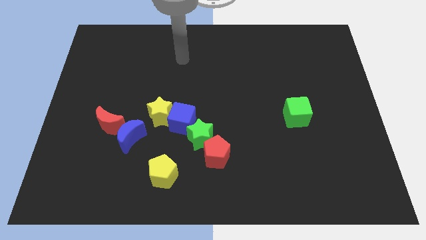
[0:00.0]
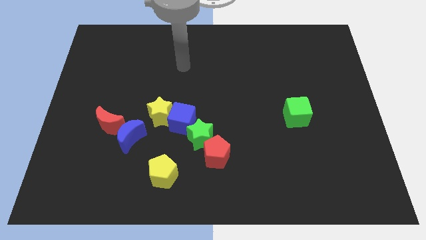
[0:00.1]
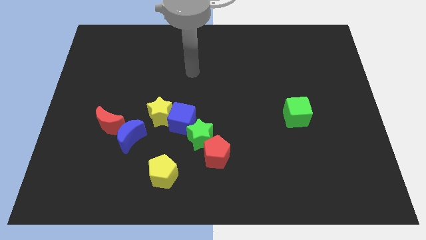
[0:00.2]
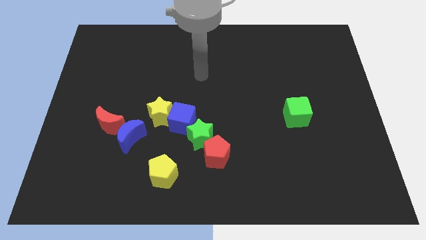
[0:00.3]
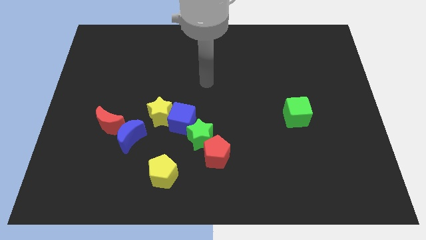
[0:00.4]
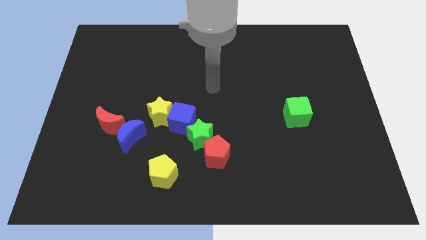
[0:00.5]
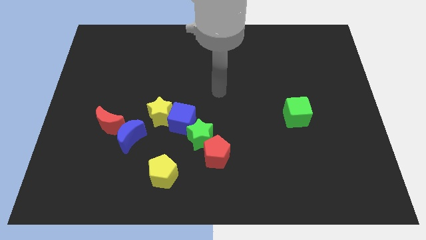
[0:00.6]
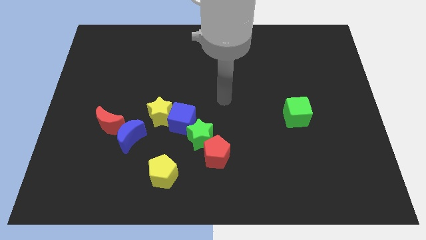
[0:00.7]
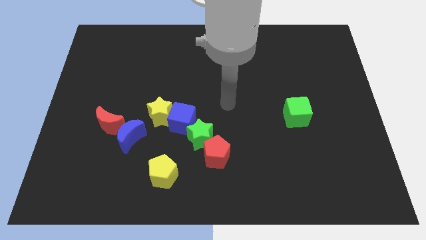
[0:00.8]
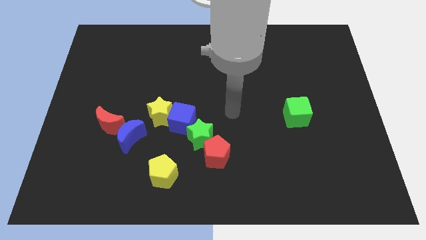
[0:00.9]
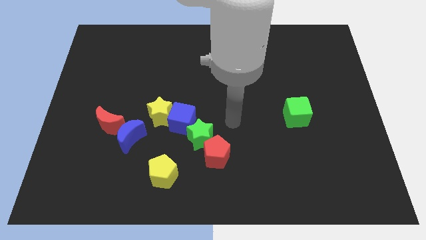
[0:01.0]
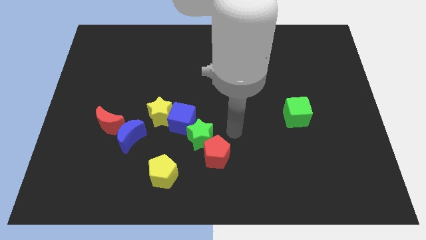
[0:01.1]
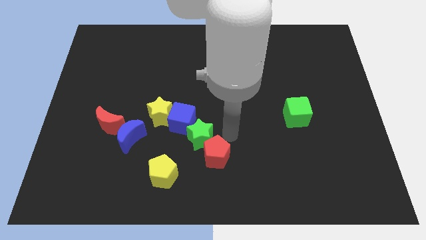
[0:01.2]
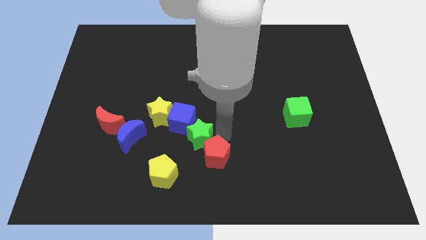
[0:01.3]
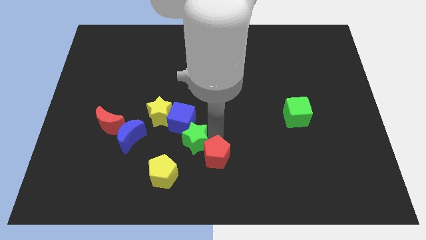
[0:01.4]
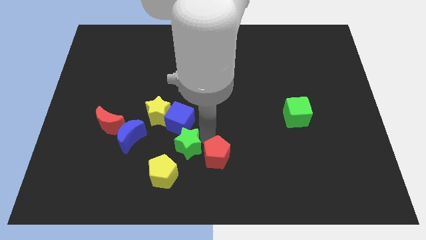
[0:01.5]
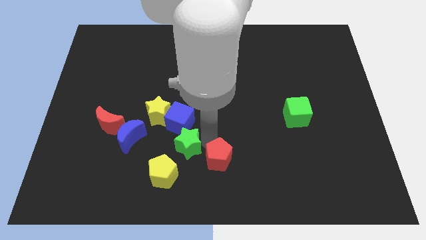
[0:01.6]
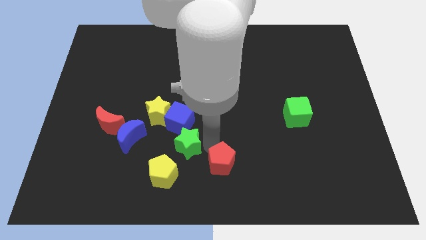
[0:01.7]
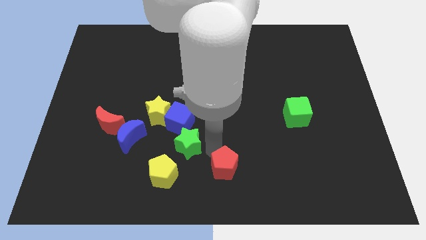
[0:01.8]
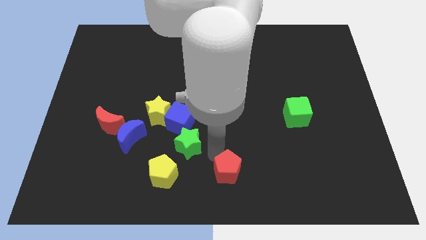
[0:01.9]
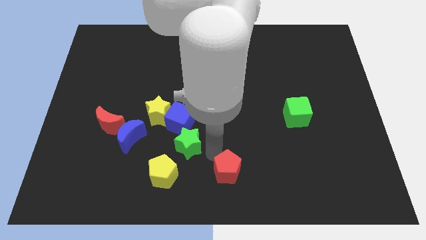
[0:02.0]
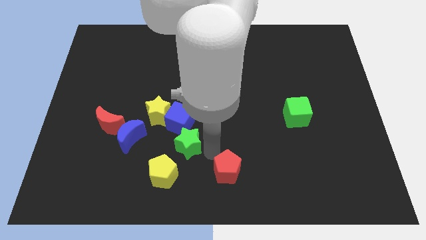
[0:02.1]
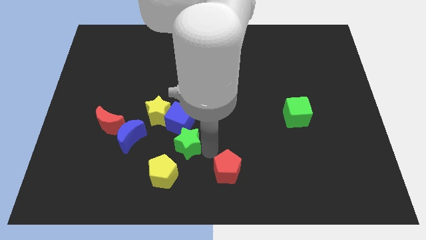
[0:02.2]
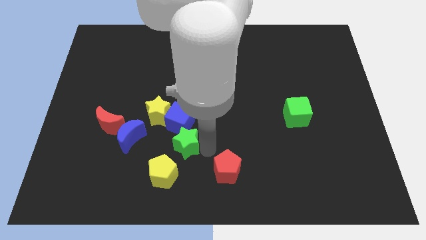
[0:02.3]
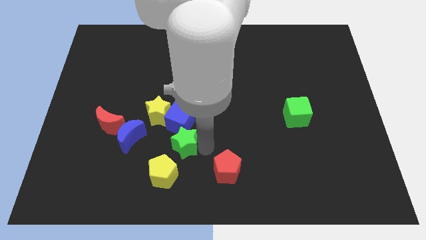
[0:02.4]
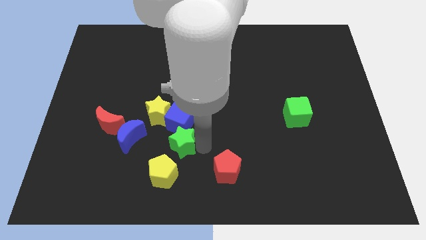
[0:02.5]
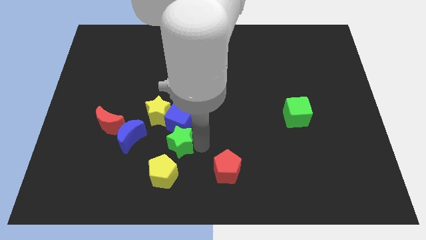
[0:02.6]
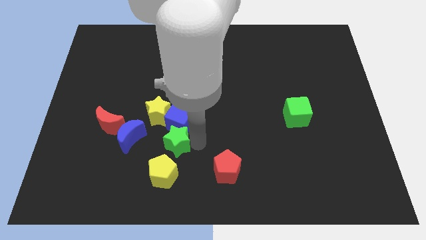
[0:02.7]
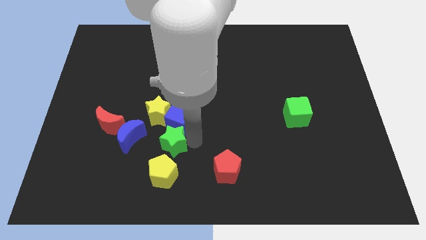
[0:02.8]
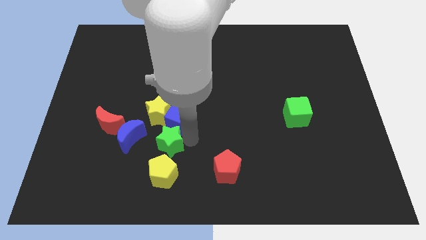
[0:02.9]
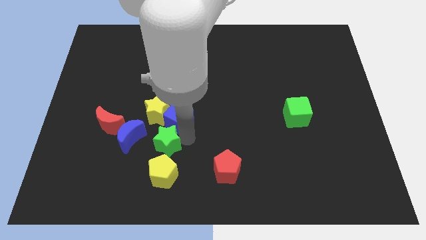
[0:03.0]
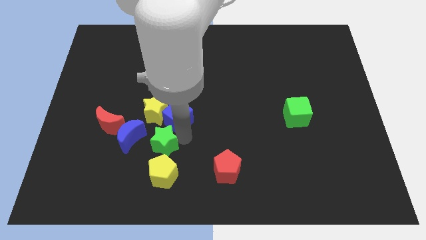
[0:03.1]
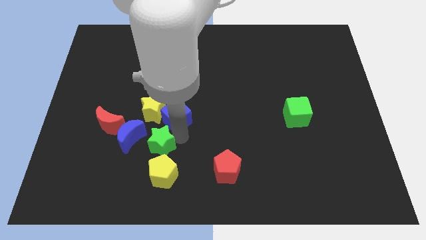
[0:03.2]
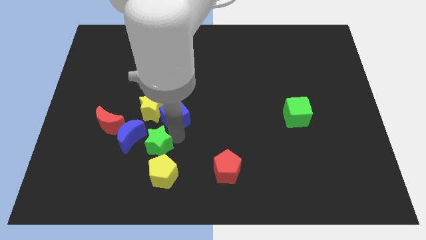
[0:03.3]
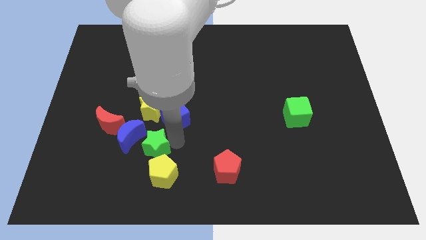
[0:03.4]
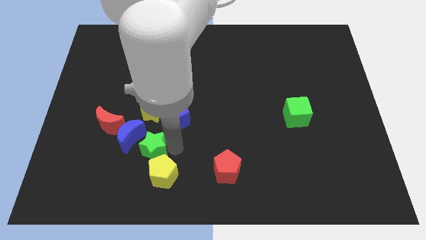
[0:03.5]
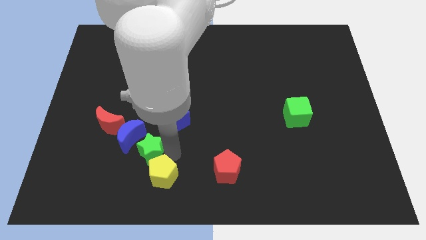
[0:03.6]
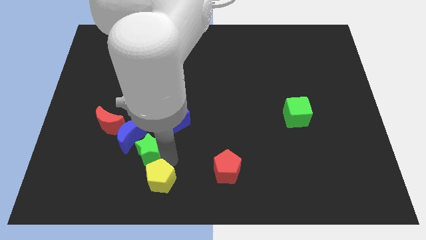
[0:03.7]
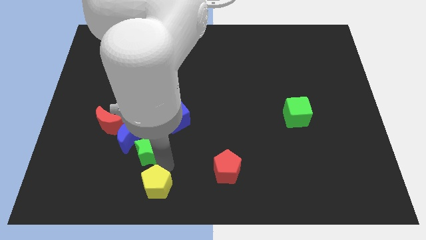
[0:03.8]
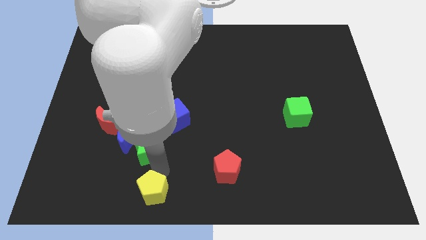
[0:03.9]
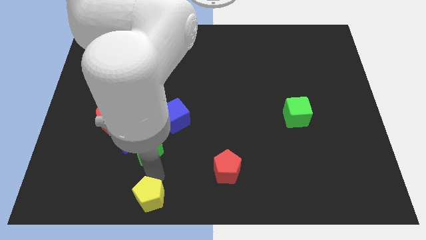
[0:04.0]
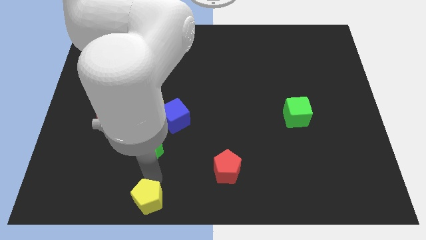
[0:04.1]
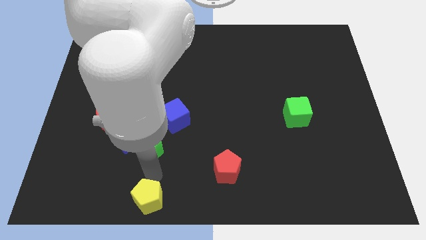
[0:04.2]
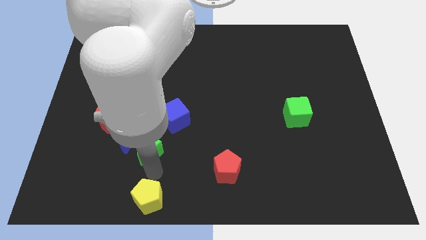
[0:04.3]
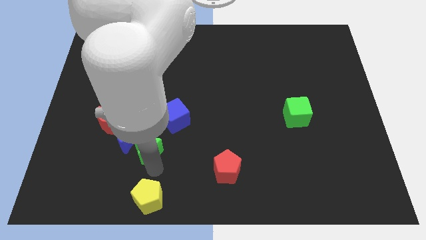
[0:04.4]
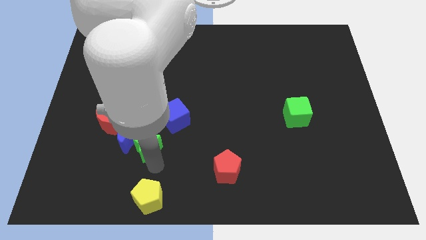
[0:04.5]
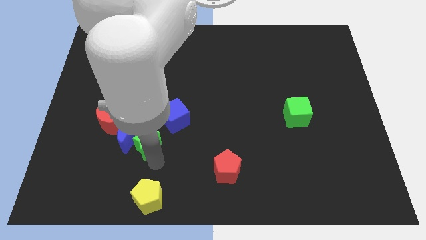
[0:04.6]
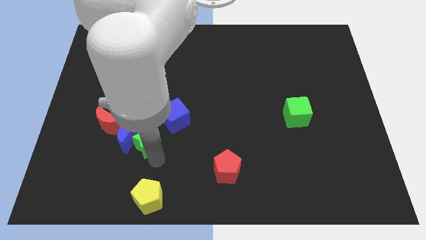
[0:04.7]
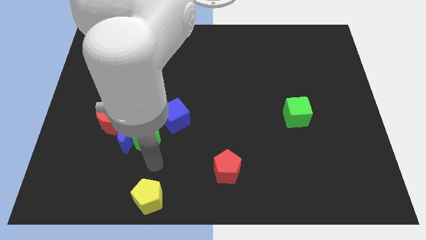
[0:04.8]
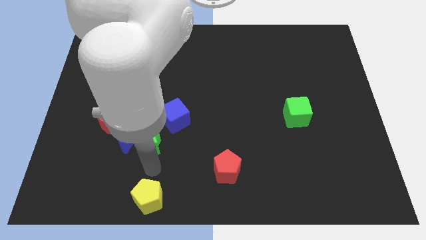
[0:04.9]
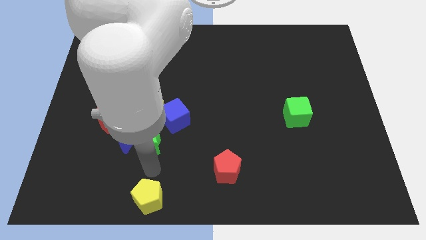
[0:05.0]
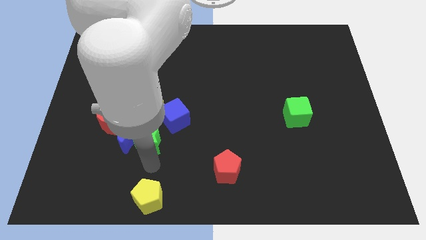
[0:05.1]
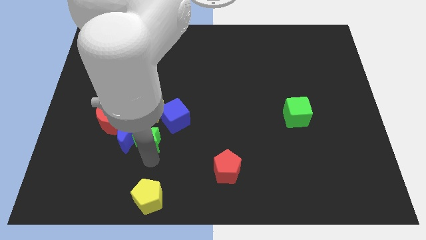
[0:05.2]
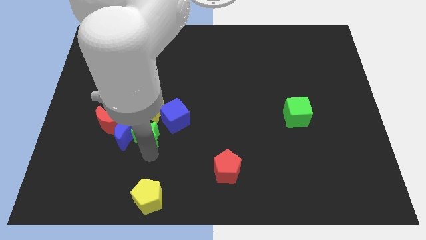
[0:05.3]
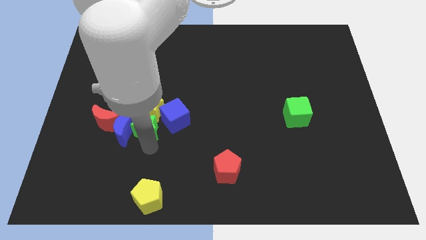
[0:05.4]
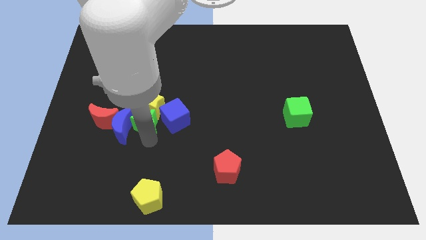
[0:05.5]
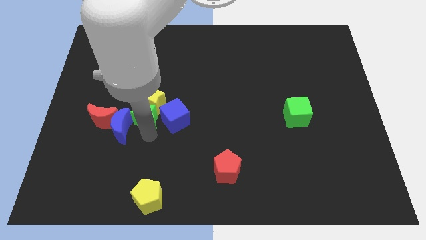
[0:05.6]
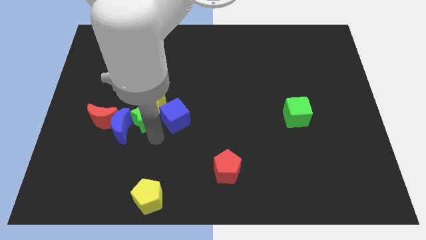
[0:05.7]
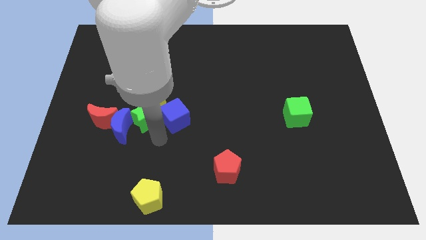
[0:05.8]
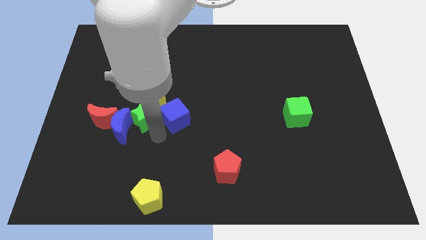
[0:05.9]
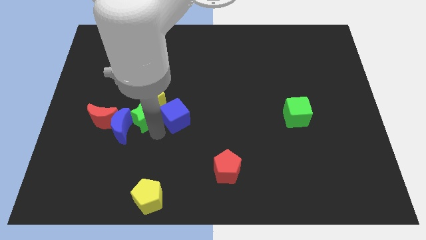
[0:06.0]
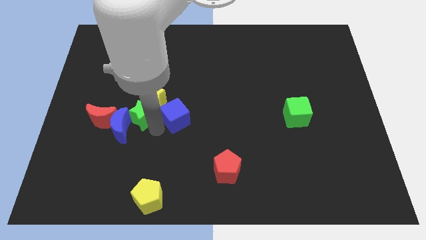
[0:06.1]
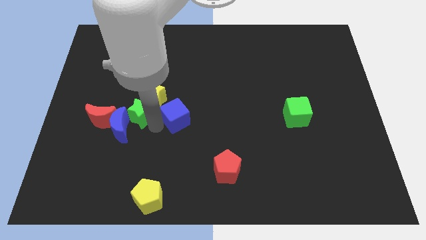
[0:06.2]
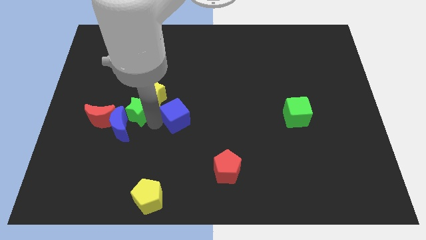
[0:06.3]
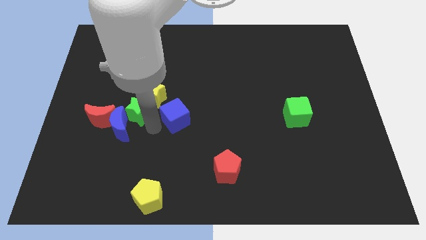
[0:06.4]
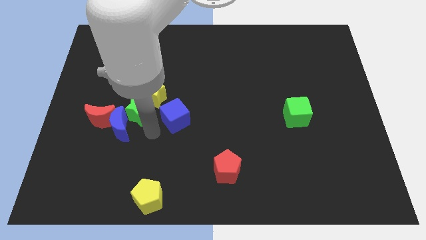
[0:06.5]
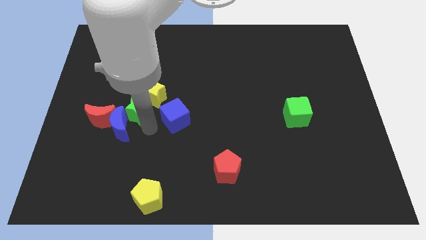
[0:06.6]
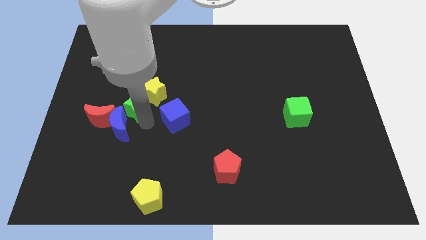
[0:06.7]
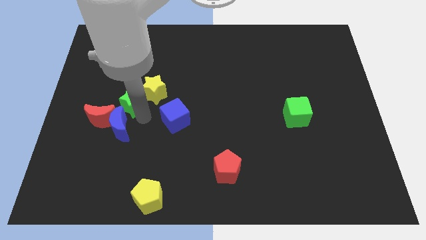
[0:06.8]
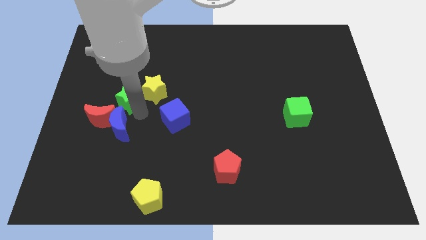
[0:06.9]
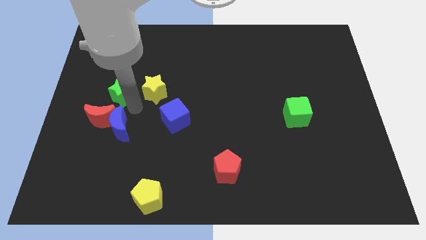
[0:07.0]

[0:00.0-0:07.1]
move the green star up and left

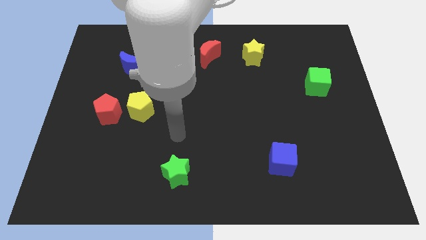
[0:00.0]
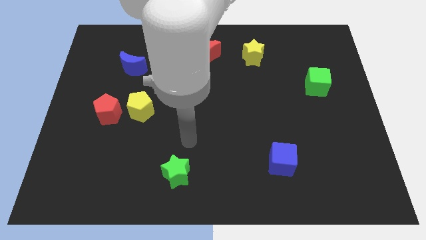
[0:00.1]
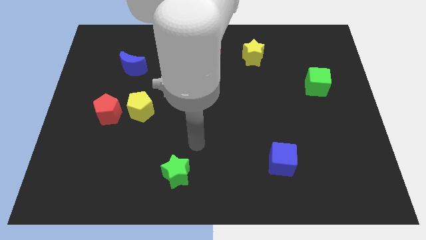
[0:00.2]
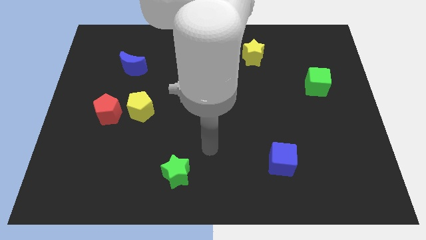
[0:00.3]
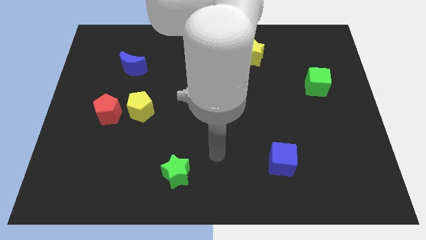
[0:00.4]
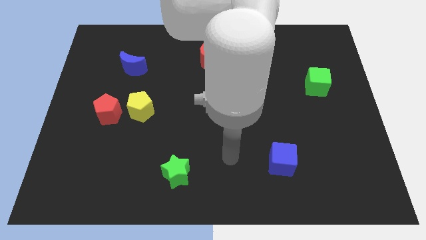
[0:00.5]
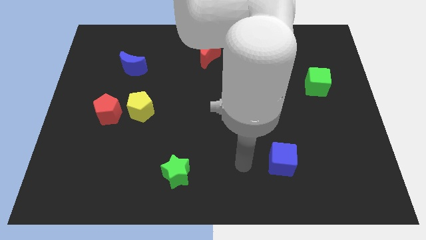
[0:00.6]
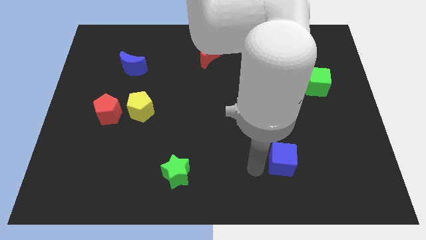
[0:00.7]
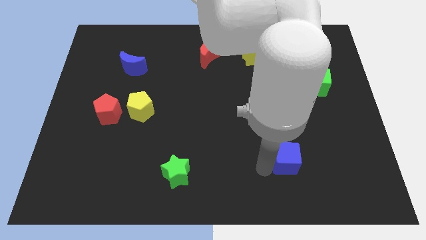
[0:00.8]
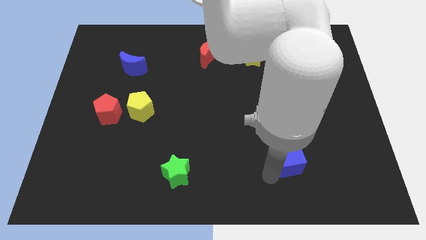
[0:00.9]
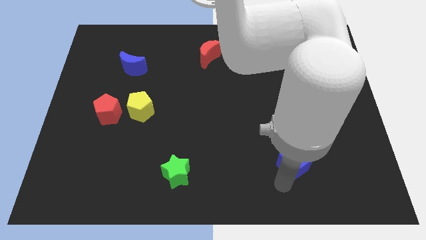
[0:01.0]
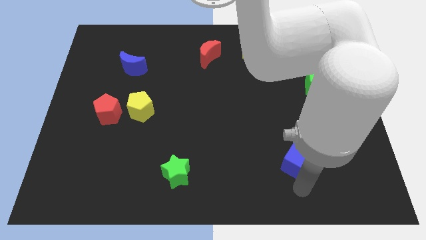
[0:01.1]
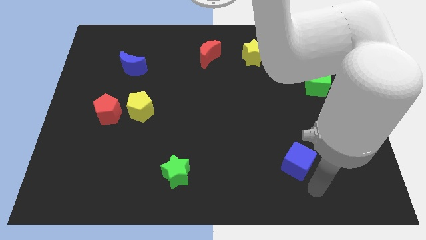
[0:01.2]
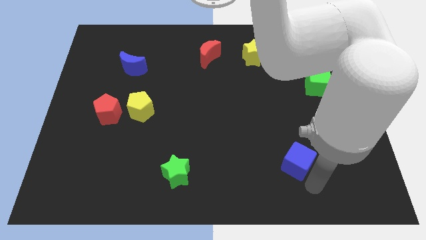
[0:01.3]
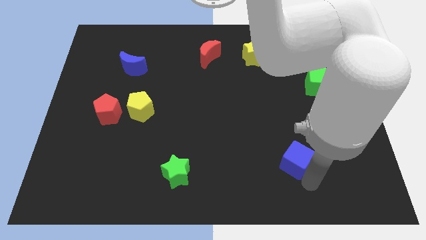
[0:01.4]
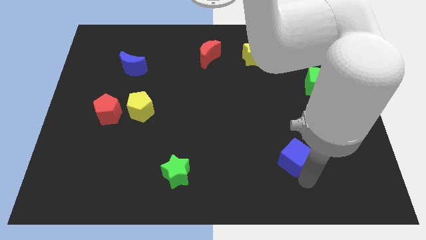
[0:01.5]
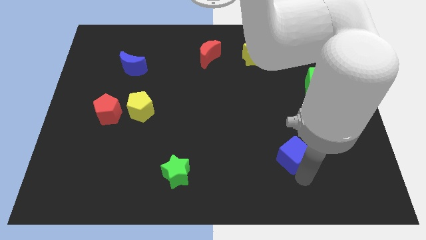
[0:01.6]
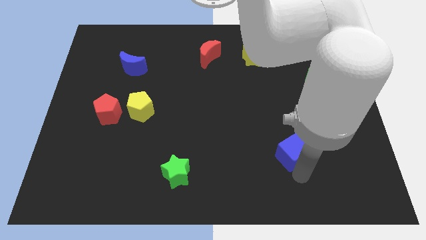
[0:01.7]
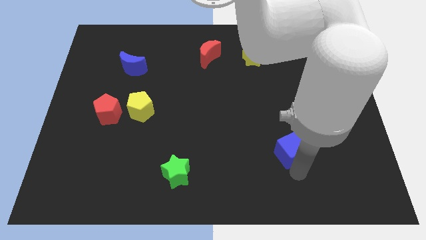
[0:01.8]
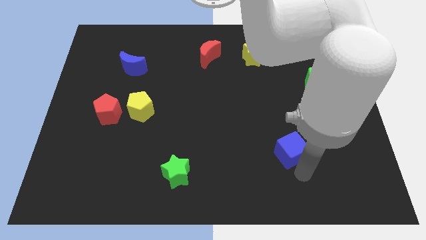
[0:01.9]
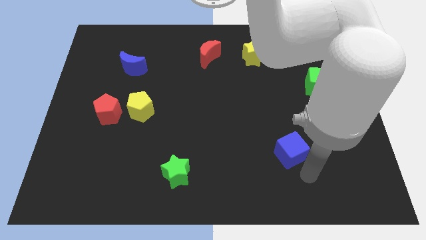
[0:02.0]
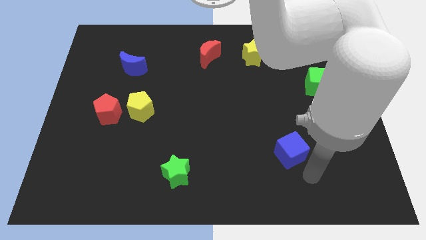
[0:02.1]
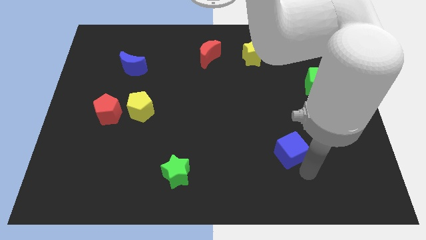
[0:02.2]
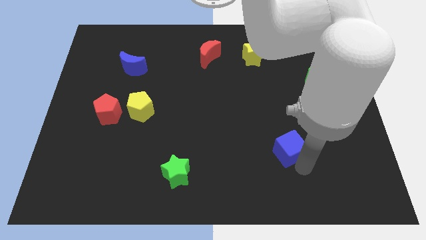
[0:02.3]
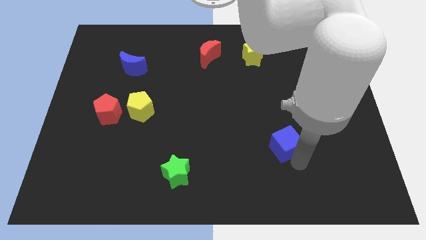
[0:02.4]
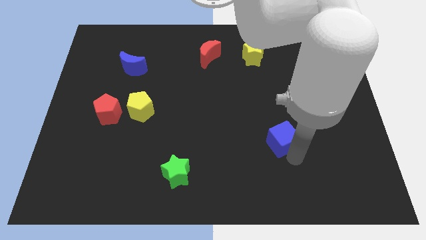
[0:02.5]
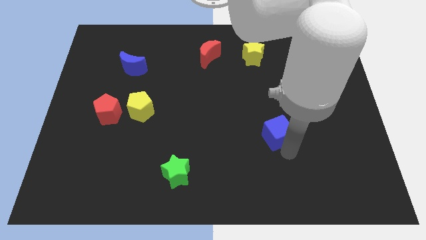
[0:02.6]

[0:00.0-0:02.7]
move the blue cube a little up
